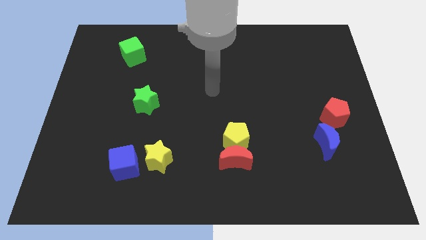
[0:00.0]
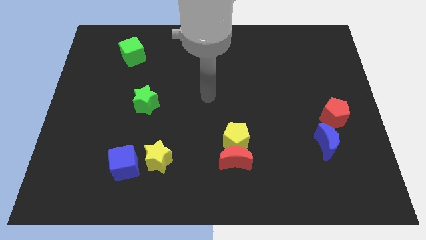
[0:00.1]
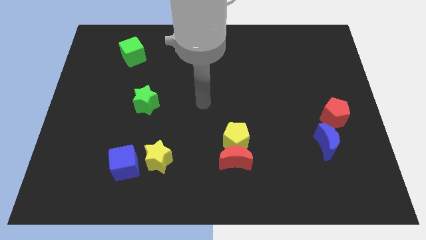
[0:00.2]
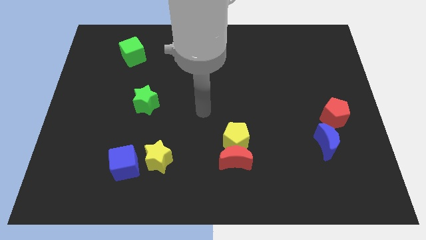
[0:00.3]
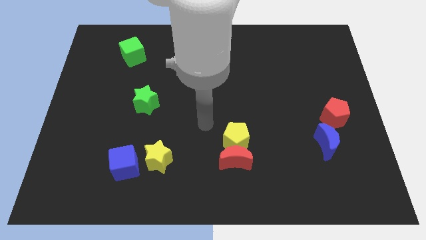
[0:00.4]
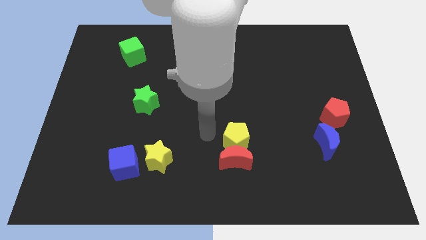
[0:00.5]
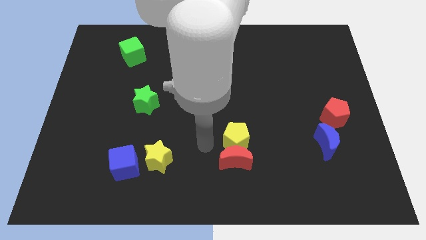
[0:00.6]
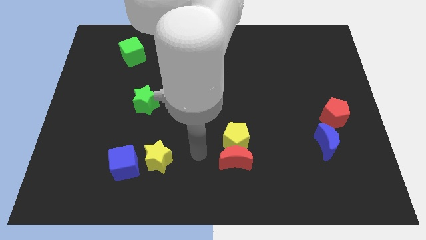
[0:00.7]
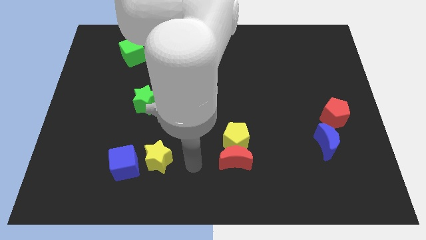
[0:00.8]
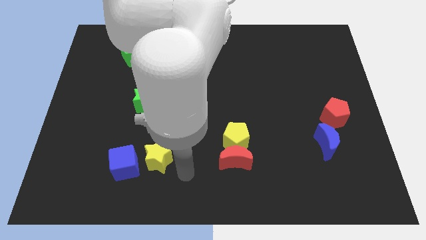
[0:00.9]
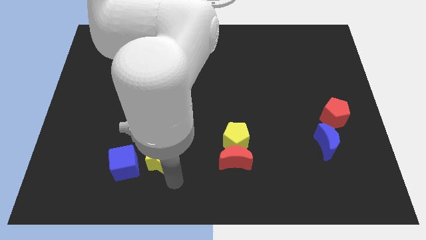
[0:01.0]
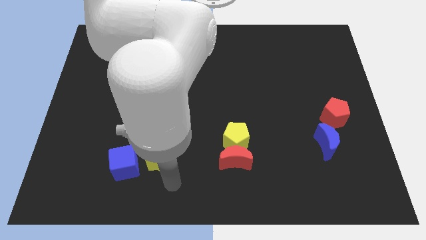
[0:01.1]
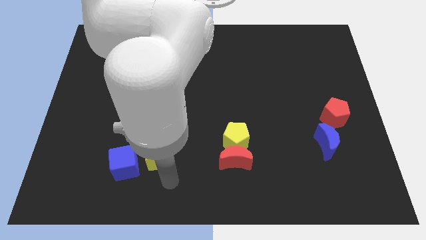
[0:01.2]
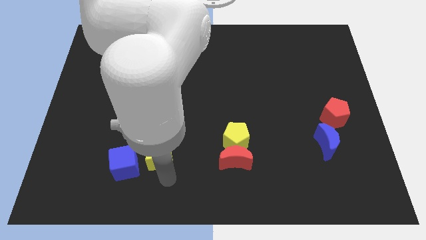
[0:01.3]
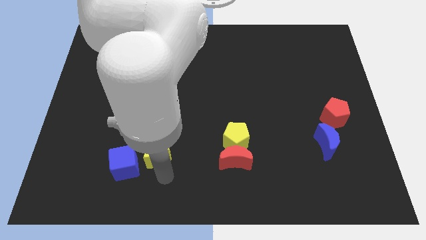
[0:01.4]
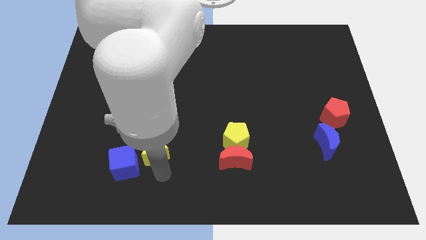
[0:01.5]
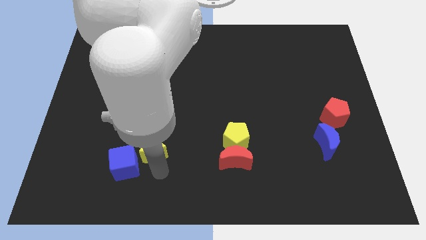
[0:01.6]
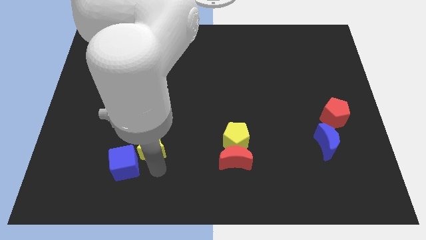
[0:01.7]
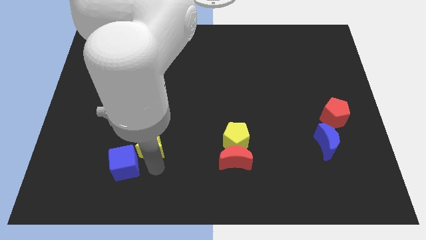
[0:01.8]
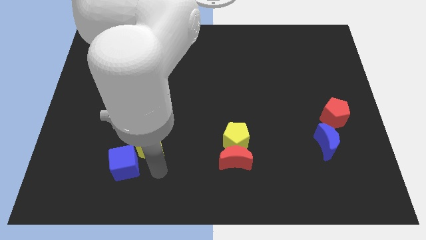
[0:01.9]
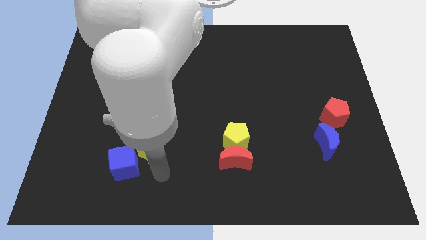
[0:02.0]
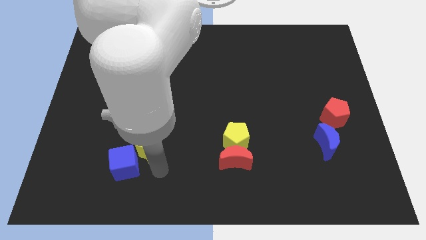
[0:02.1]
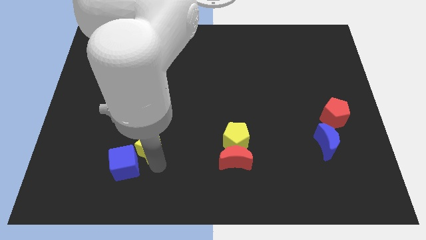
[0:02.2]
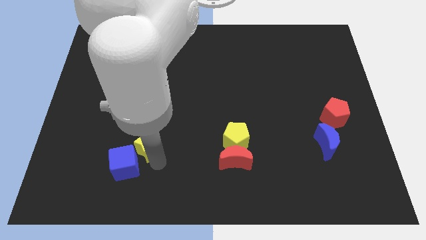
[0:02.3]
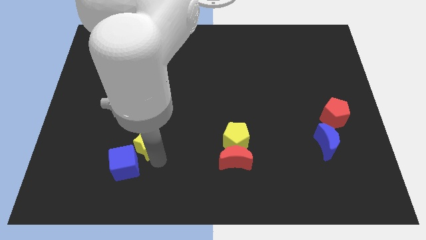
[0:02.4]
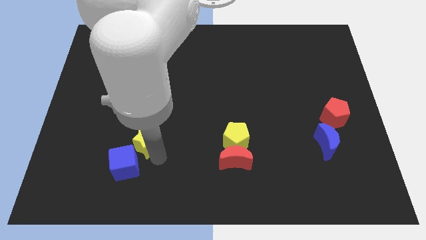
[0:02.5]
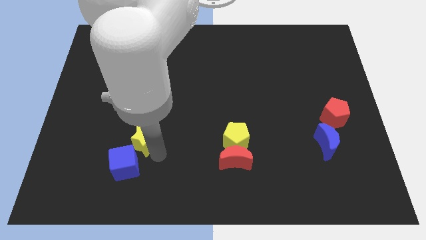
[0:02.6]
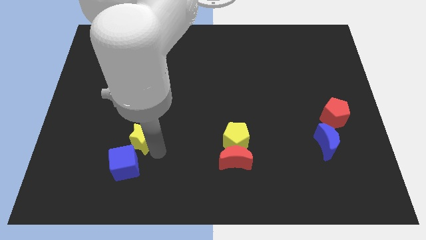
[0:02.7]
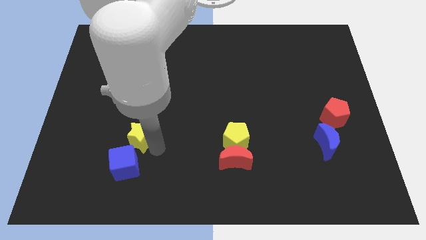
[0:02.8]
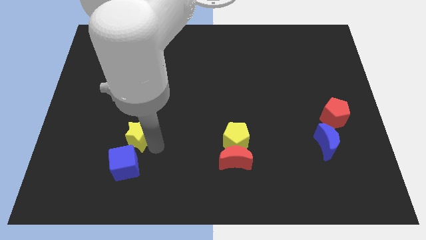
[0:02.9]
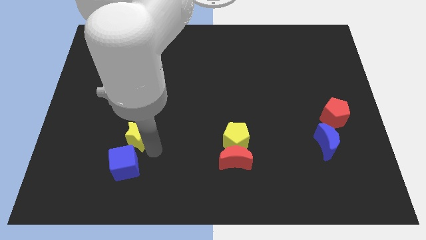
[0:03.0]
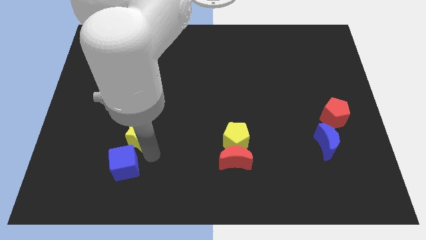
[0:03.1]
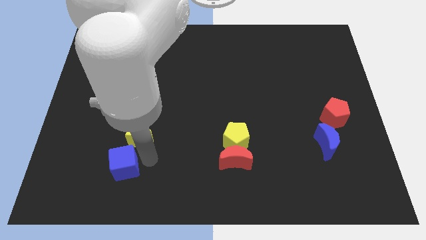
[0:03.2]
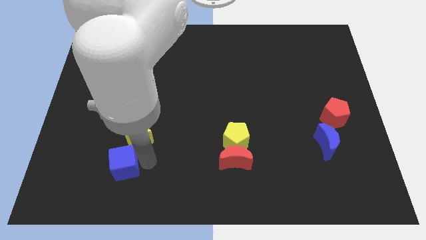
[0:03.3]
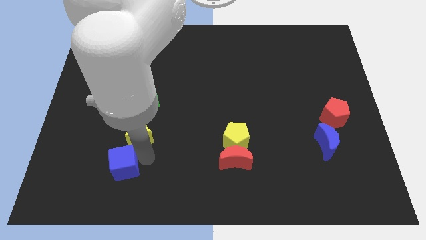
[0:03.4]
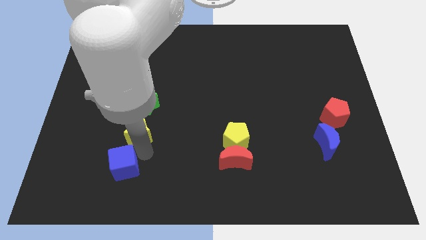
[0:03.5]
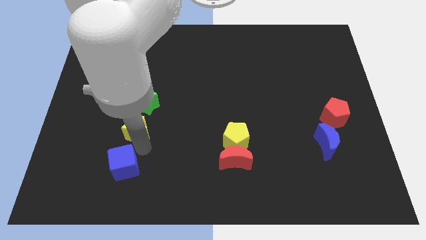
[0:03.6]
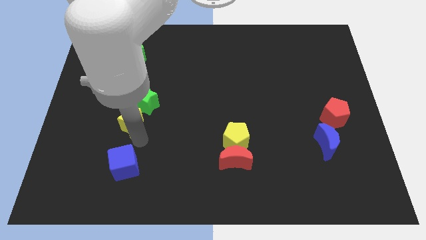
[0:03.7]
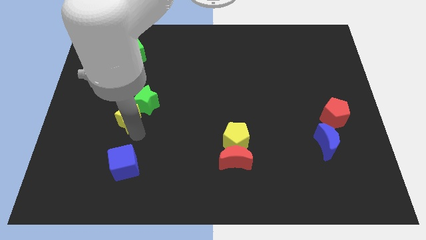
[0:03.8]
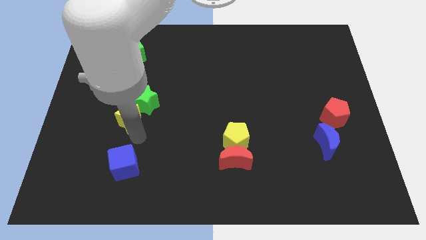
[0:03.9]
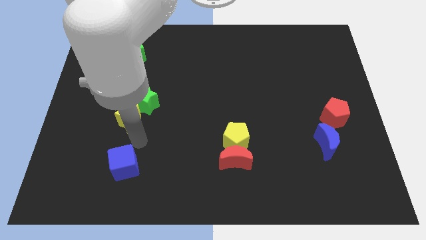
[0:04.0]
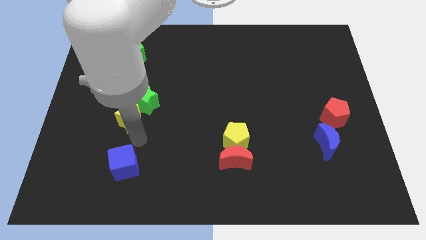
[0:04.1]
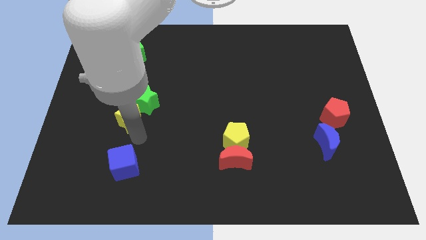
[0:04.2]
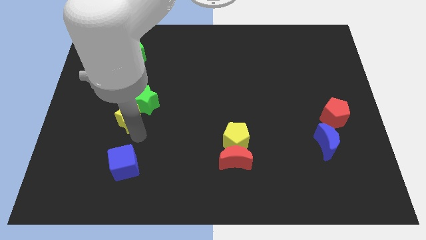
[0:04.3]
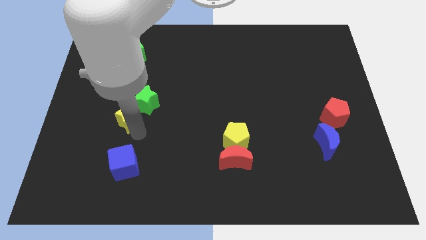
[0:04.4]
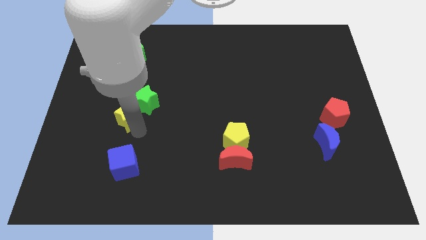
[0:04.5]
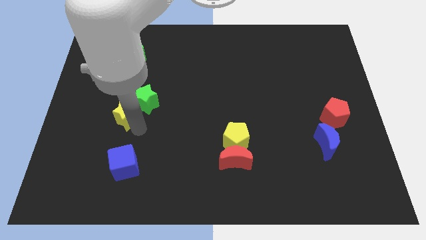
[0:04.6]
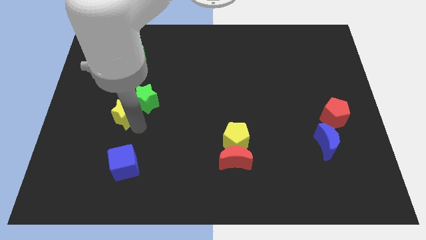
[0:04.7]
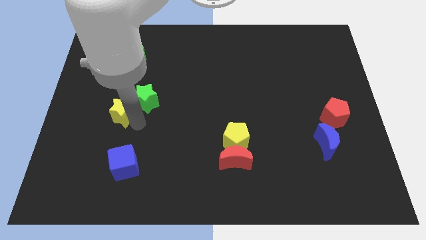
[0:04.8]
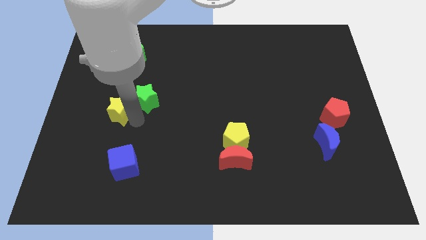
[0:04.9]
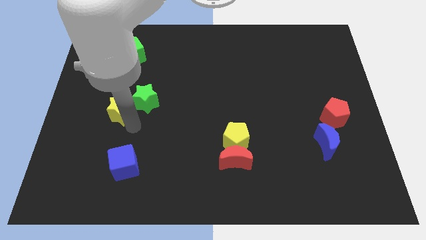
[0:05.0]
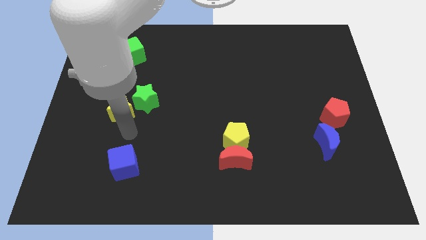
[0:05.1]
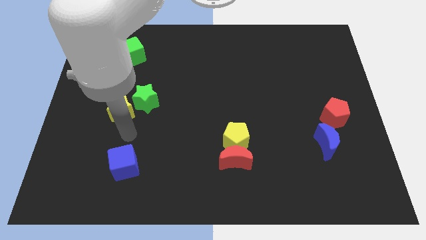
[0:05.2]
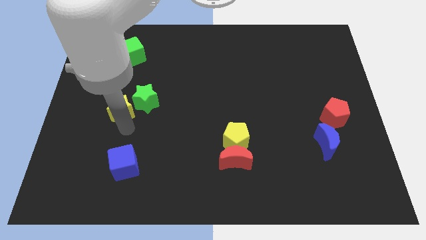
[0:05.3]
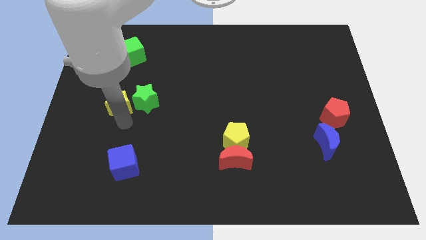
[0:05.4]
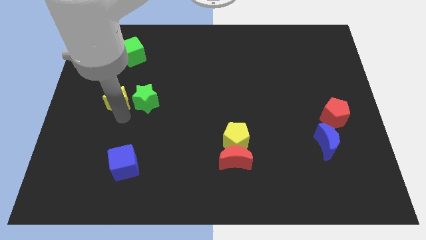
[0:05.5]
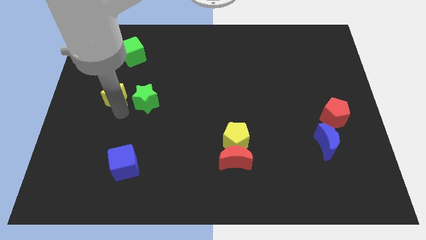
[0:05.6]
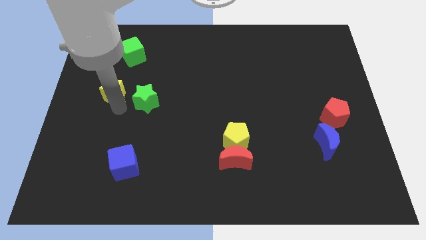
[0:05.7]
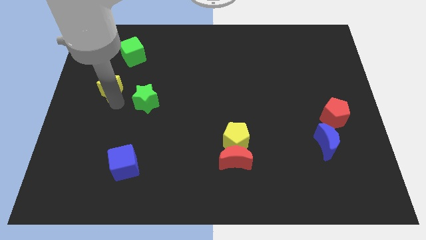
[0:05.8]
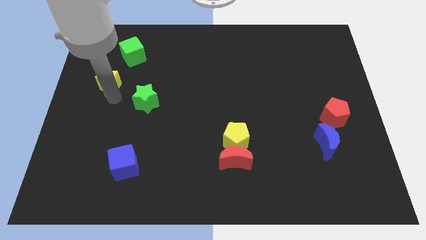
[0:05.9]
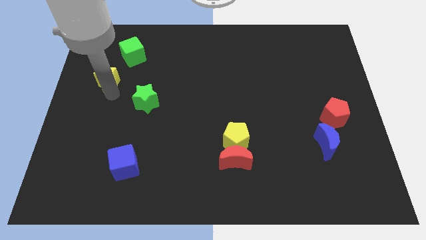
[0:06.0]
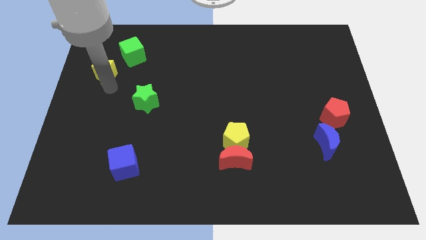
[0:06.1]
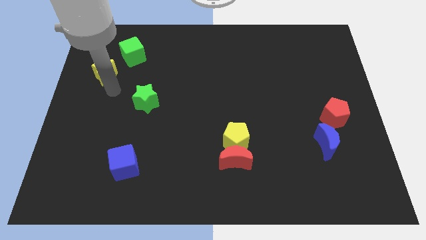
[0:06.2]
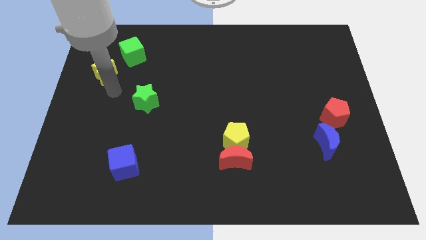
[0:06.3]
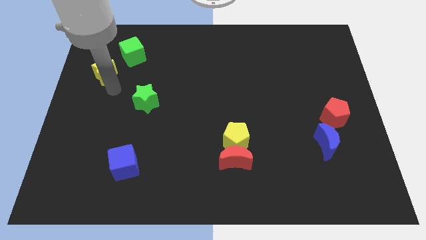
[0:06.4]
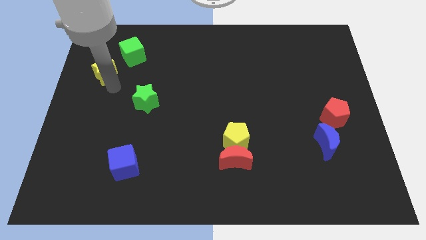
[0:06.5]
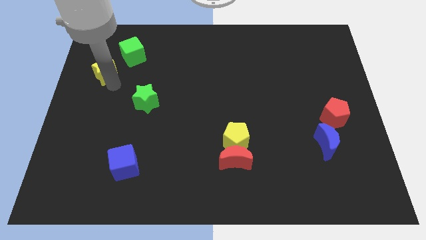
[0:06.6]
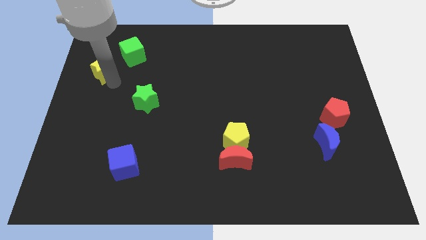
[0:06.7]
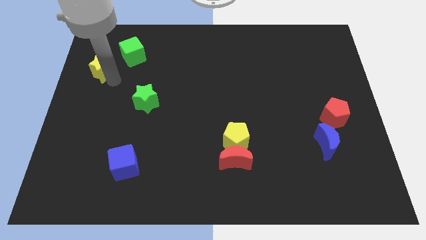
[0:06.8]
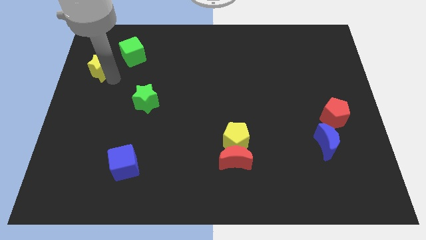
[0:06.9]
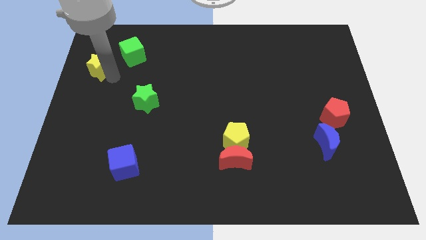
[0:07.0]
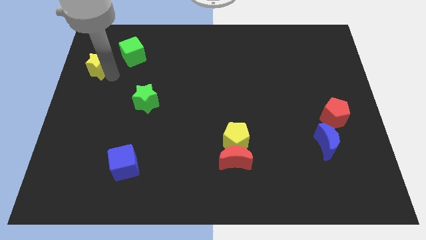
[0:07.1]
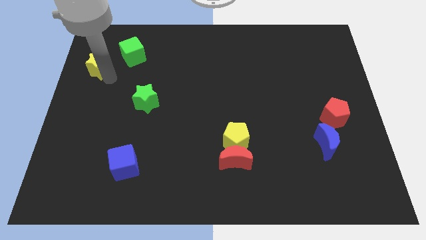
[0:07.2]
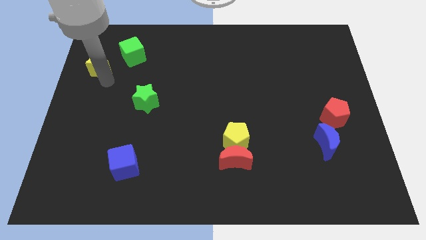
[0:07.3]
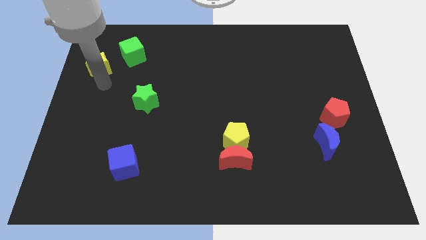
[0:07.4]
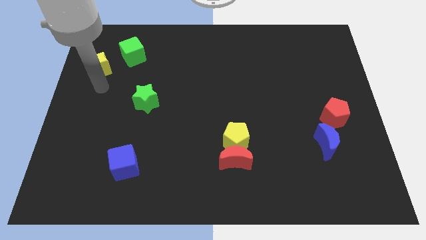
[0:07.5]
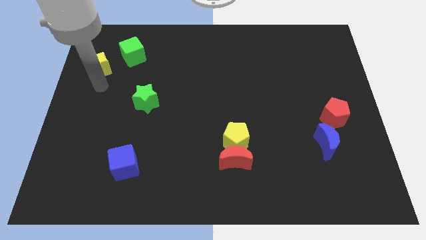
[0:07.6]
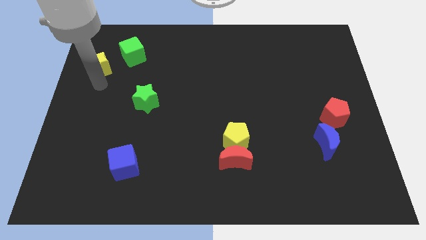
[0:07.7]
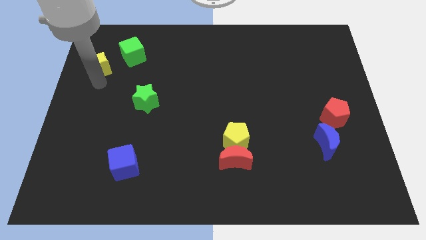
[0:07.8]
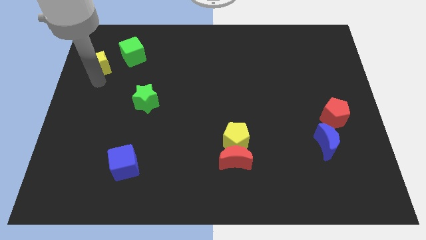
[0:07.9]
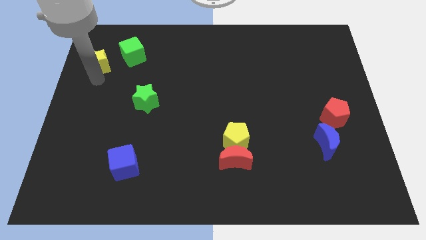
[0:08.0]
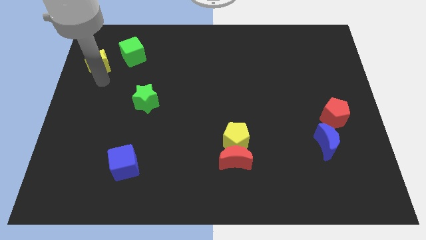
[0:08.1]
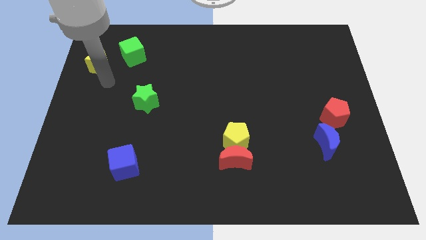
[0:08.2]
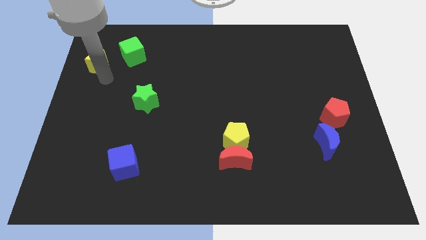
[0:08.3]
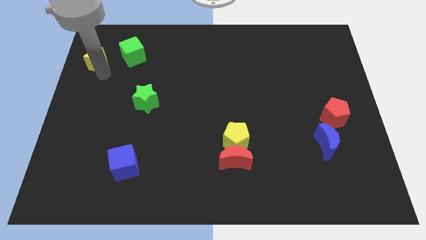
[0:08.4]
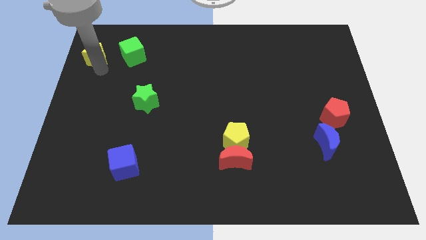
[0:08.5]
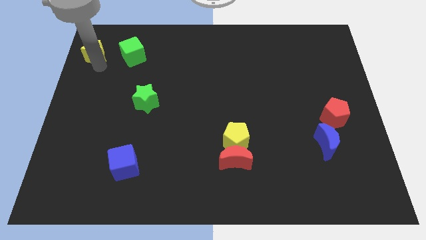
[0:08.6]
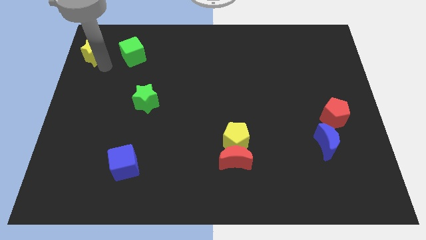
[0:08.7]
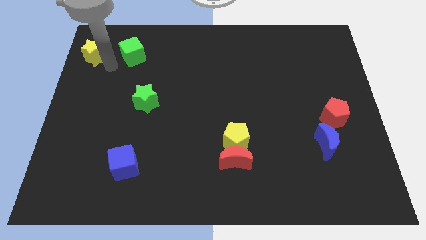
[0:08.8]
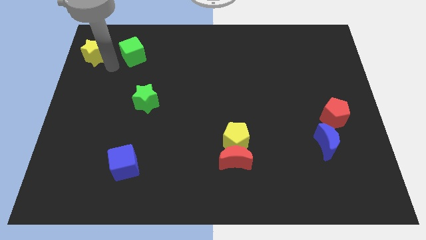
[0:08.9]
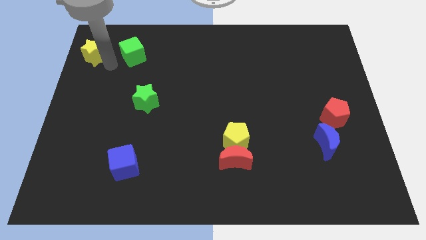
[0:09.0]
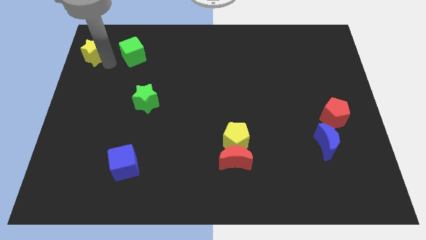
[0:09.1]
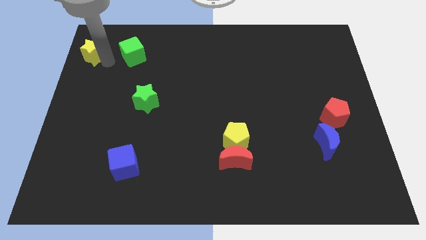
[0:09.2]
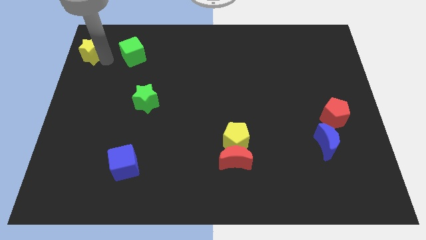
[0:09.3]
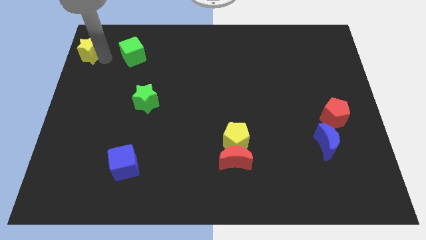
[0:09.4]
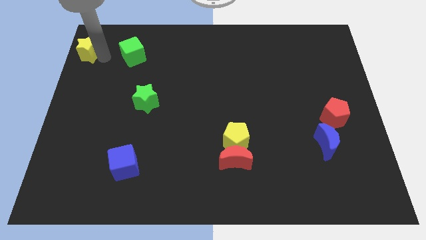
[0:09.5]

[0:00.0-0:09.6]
push the yellow star to the top left of the board
